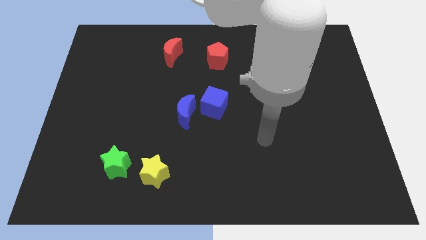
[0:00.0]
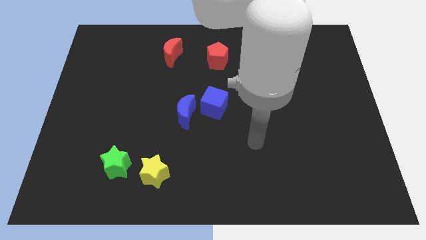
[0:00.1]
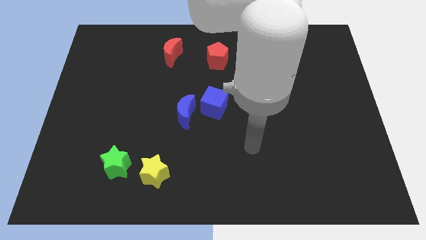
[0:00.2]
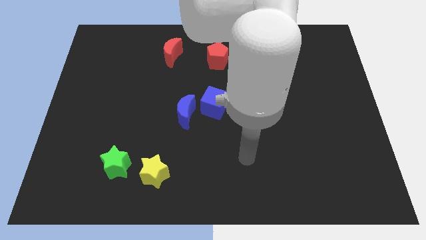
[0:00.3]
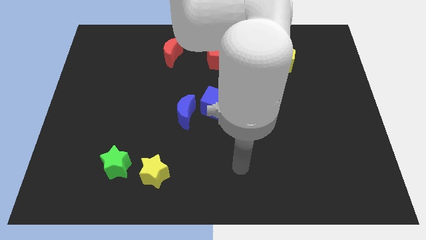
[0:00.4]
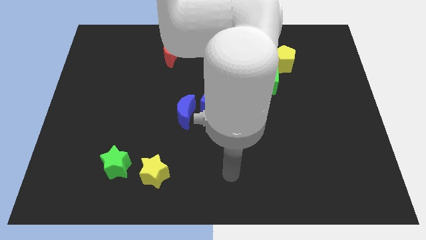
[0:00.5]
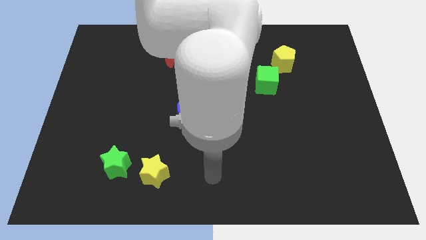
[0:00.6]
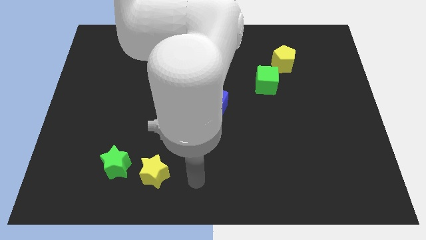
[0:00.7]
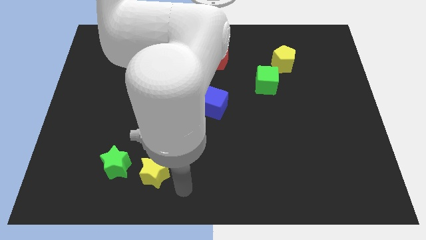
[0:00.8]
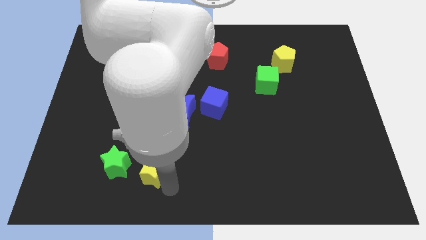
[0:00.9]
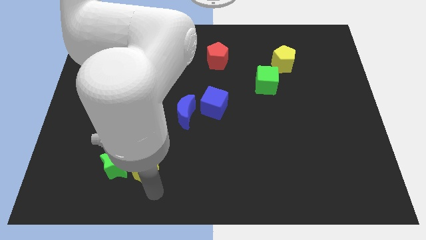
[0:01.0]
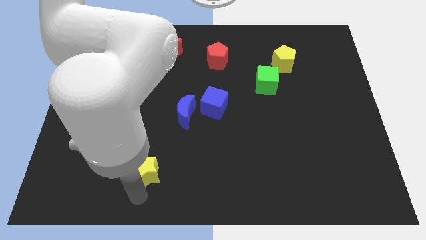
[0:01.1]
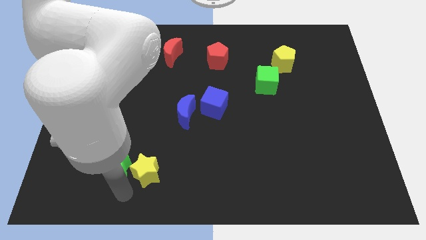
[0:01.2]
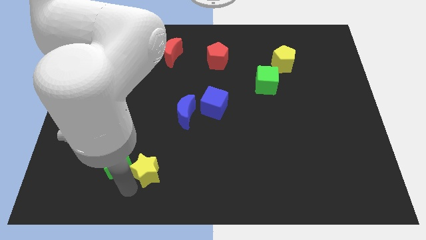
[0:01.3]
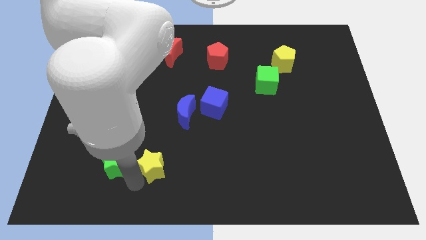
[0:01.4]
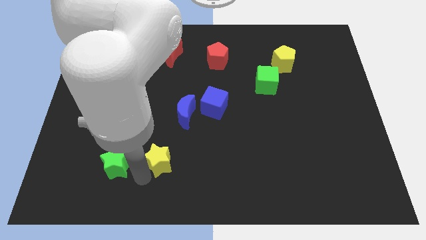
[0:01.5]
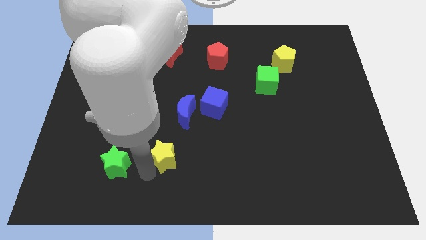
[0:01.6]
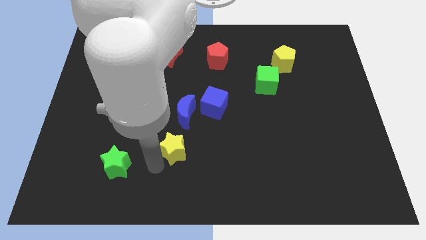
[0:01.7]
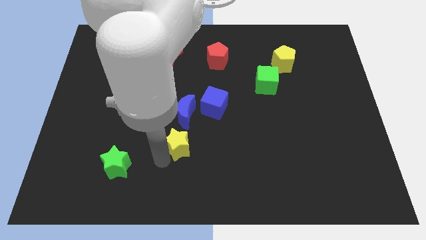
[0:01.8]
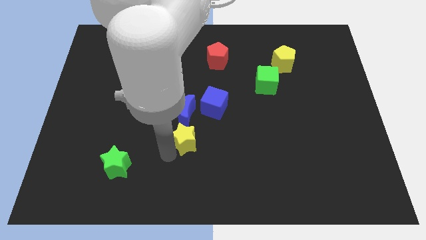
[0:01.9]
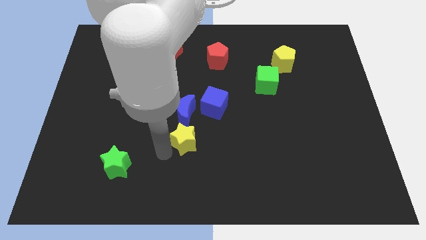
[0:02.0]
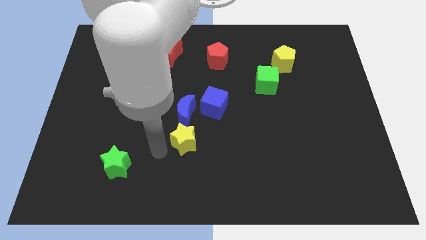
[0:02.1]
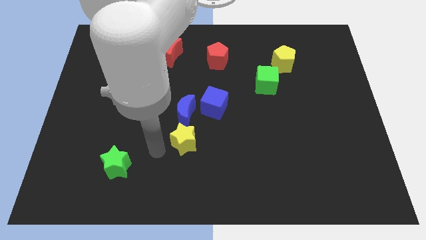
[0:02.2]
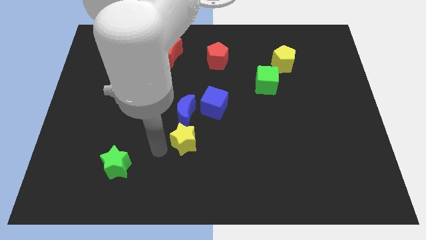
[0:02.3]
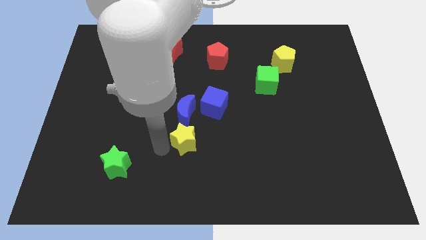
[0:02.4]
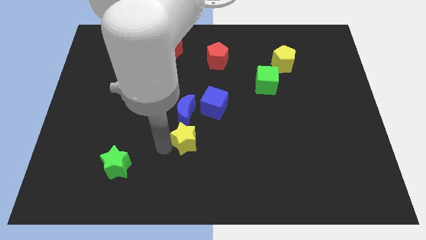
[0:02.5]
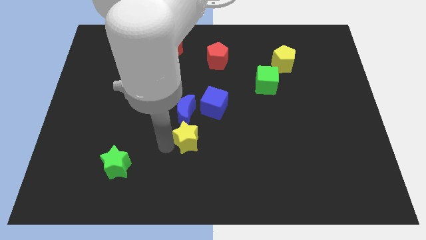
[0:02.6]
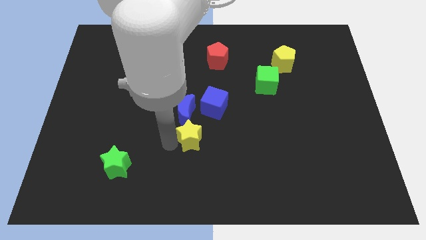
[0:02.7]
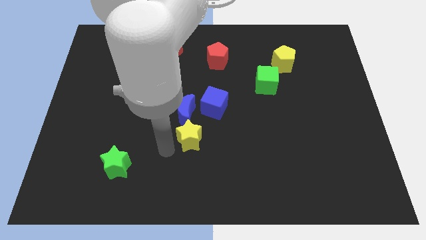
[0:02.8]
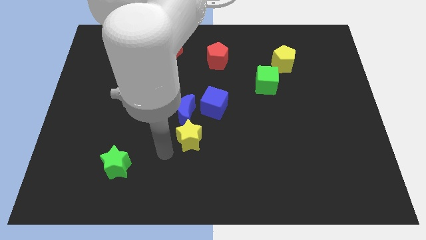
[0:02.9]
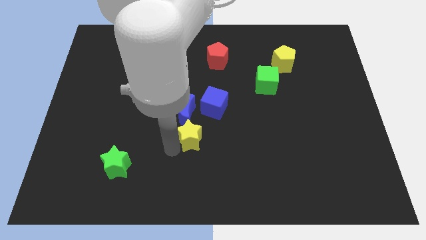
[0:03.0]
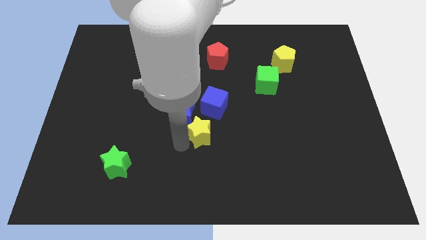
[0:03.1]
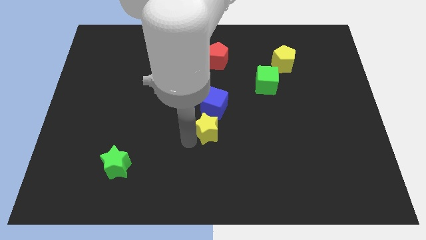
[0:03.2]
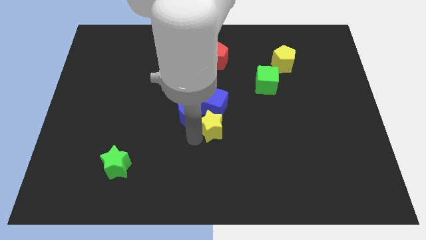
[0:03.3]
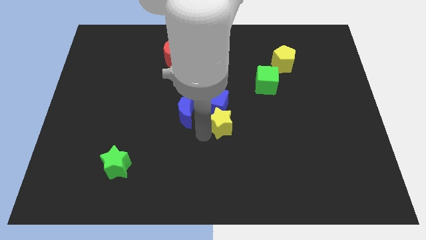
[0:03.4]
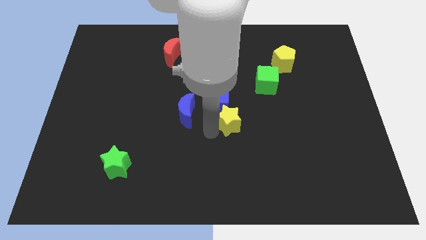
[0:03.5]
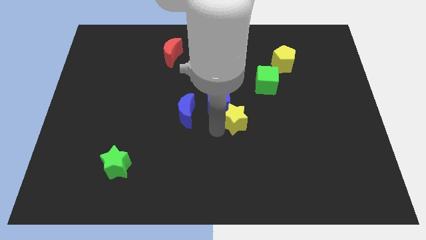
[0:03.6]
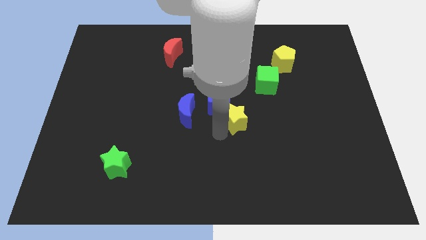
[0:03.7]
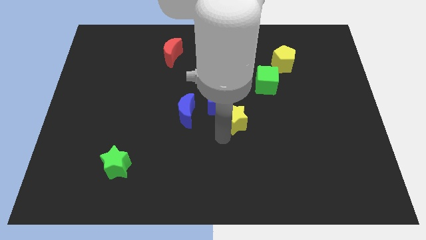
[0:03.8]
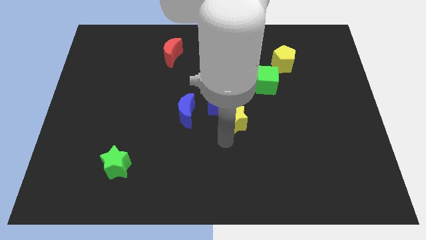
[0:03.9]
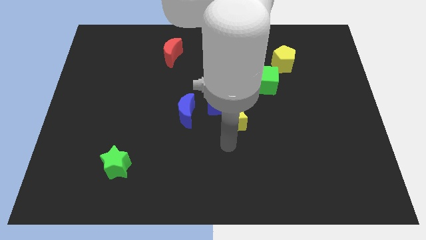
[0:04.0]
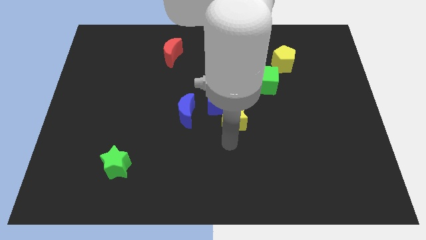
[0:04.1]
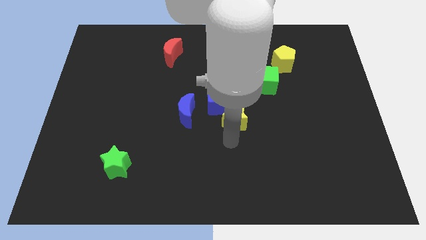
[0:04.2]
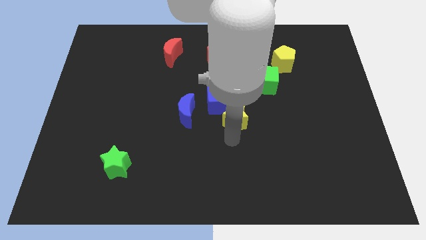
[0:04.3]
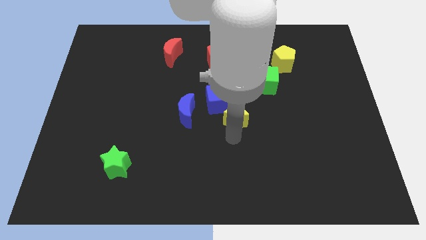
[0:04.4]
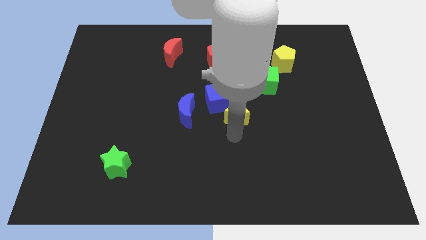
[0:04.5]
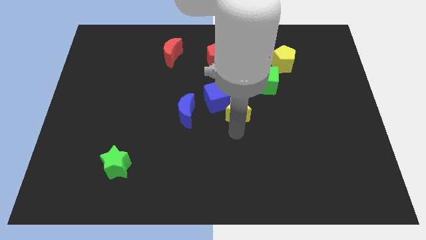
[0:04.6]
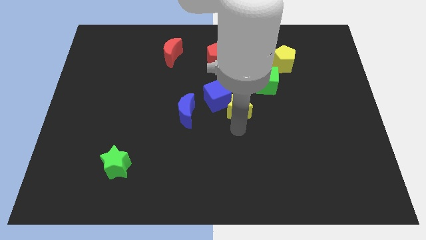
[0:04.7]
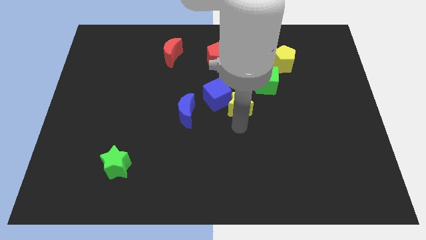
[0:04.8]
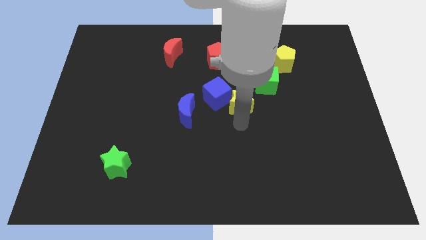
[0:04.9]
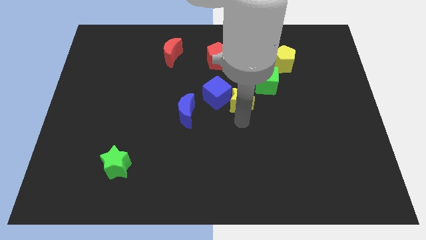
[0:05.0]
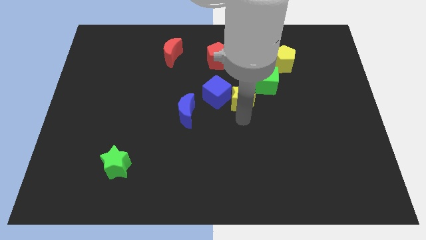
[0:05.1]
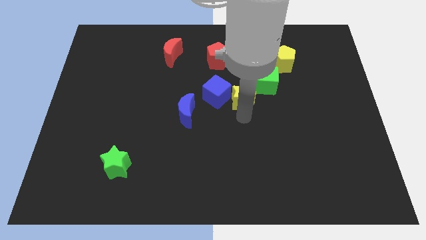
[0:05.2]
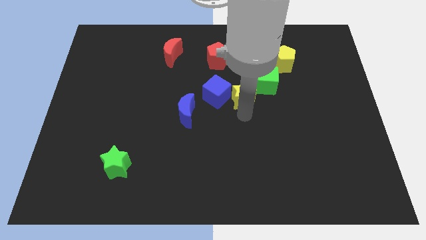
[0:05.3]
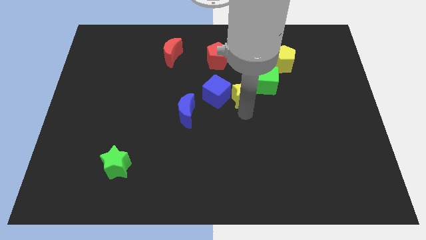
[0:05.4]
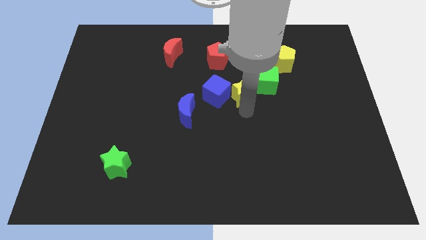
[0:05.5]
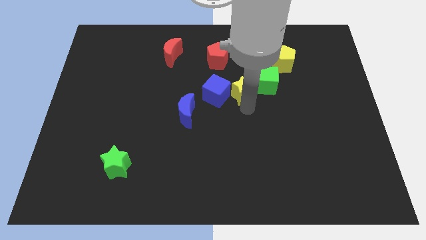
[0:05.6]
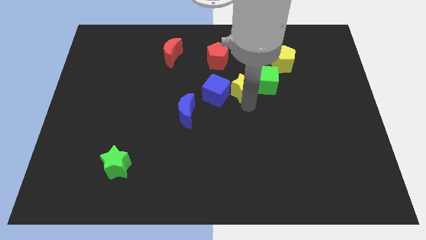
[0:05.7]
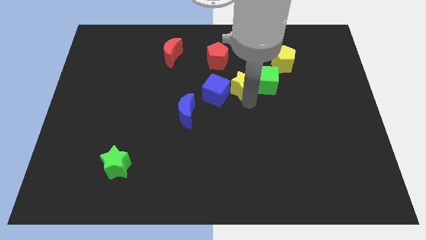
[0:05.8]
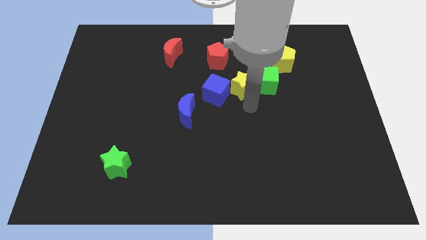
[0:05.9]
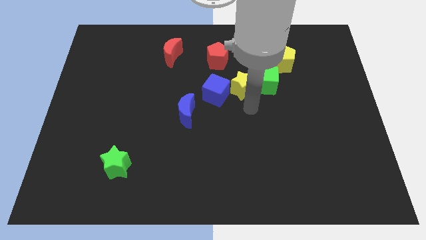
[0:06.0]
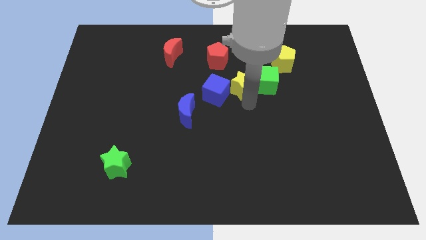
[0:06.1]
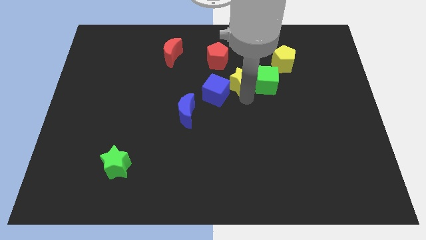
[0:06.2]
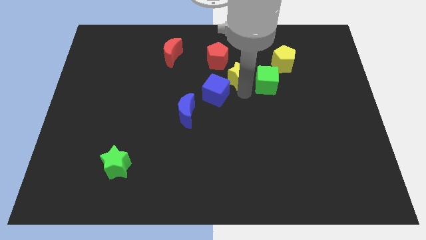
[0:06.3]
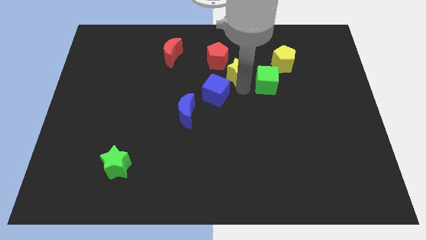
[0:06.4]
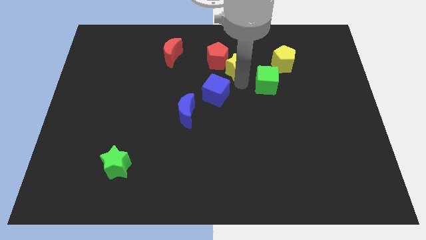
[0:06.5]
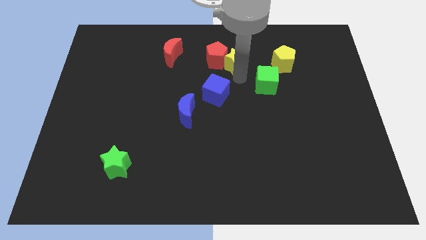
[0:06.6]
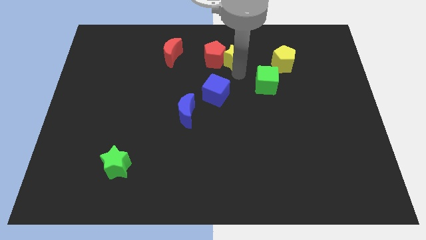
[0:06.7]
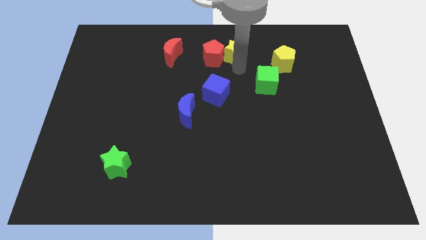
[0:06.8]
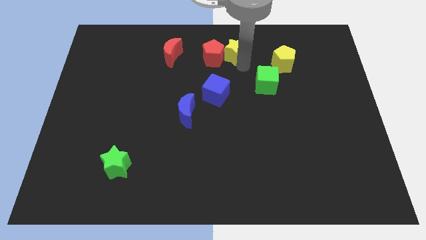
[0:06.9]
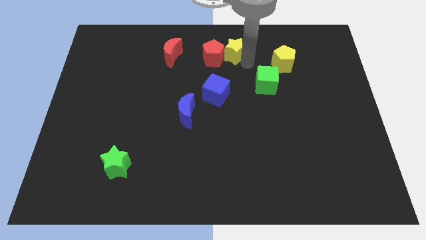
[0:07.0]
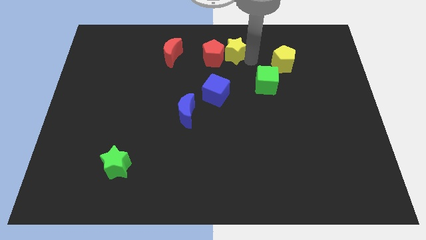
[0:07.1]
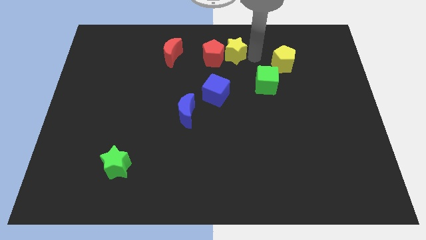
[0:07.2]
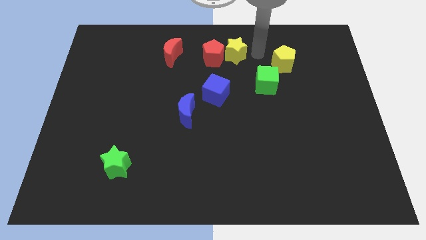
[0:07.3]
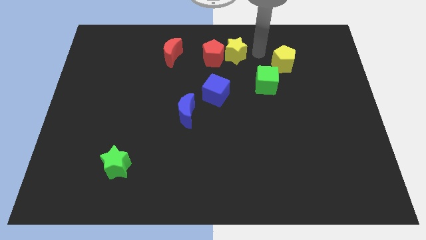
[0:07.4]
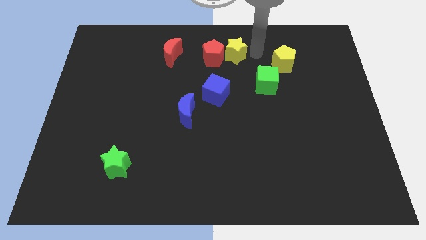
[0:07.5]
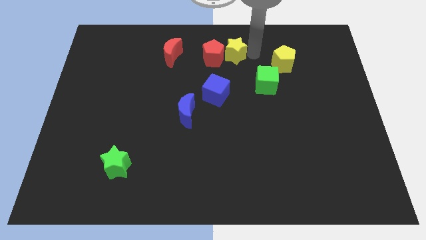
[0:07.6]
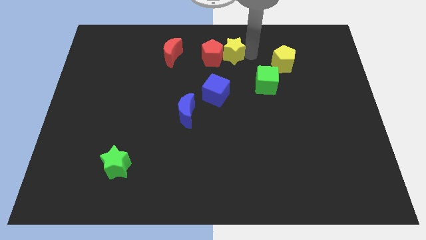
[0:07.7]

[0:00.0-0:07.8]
slide the yellow star to the right of the red moon
